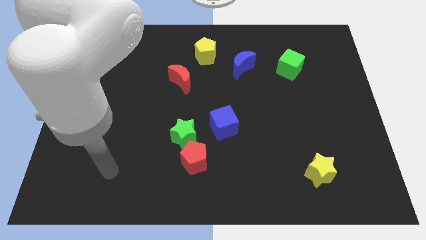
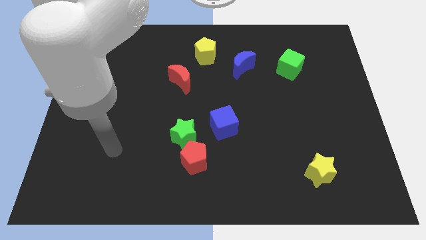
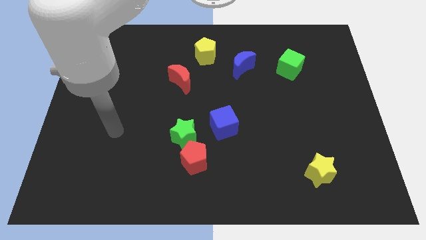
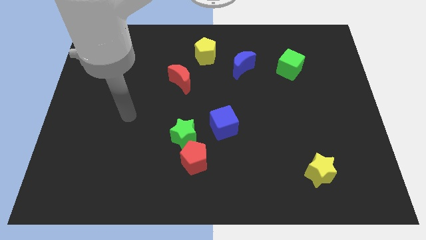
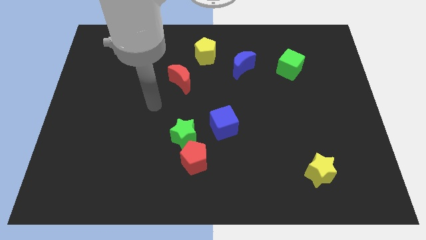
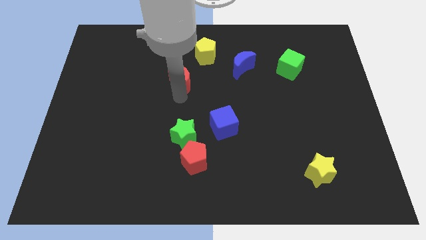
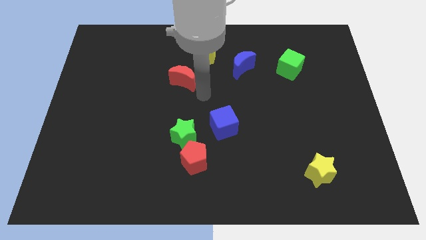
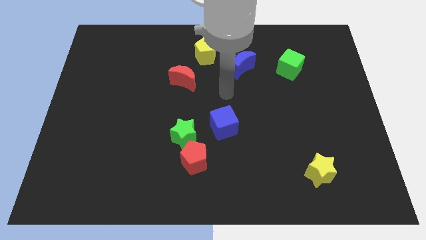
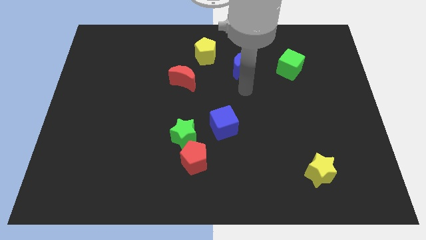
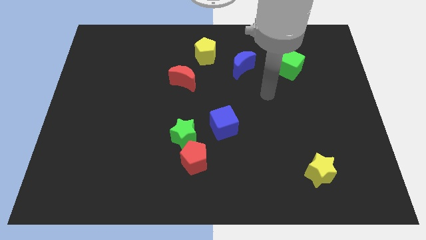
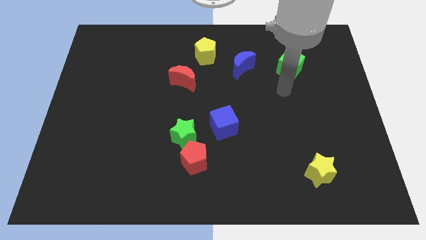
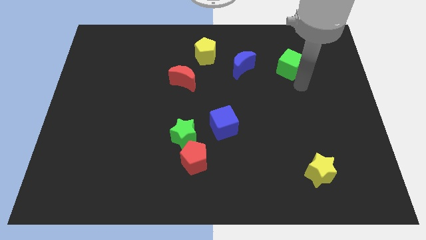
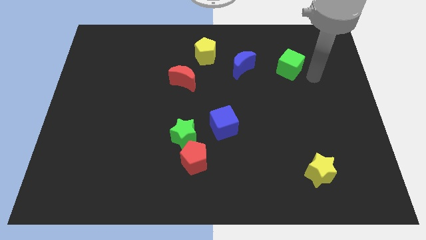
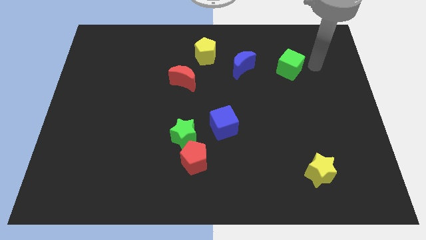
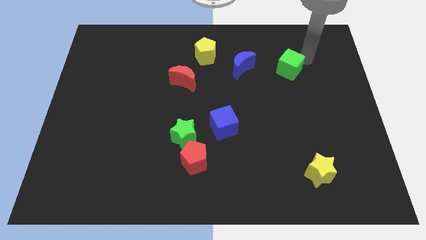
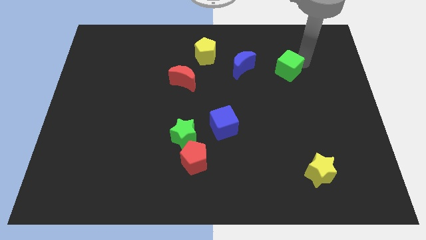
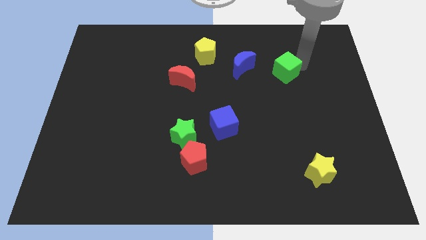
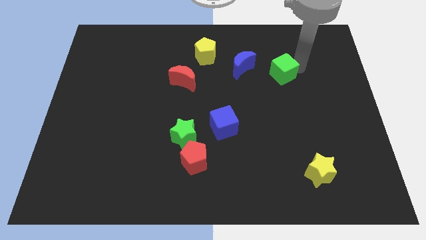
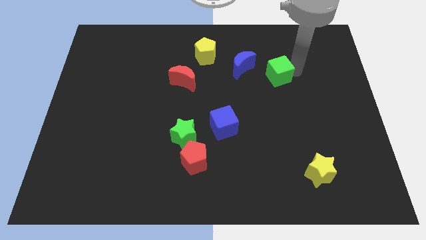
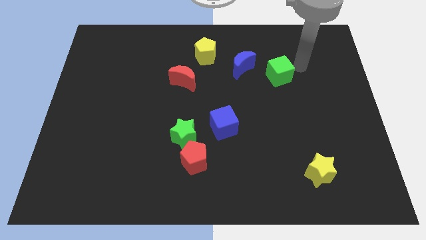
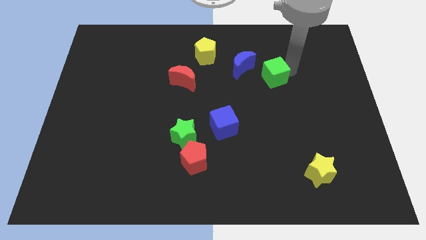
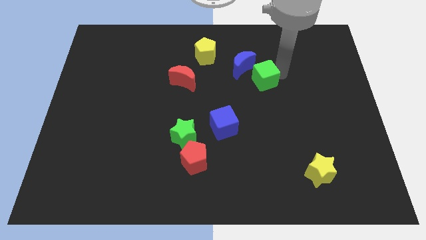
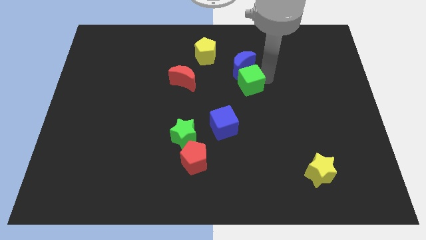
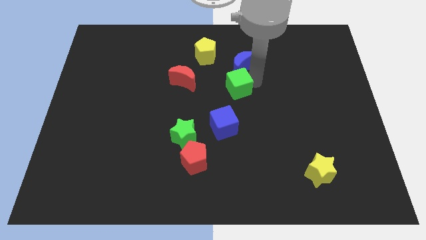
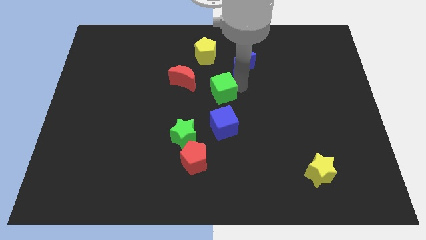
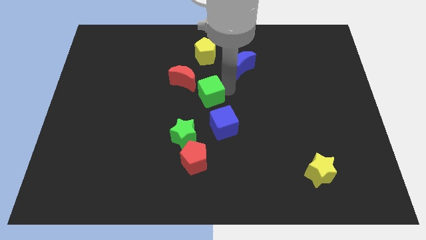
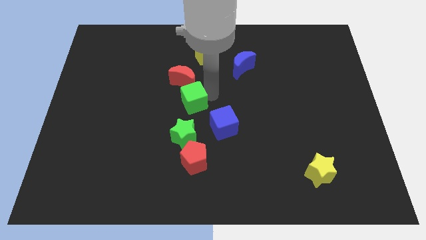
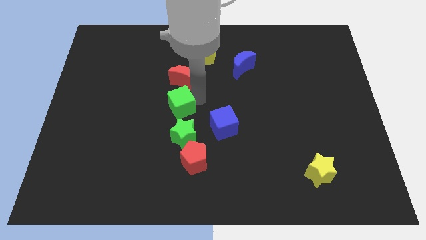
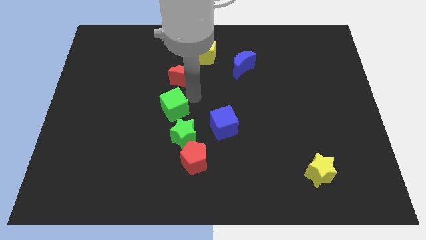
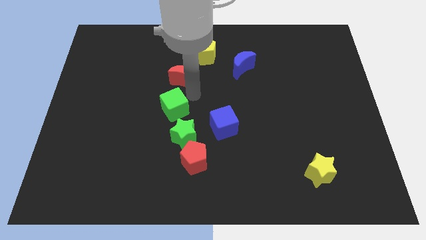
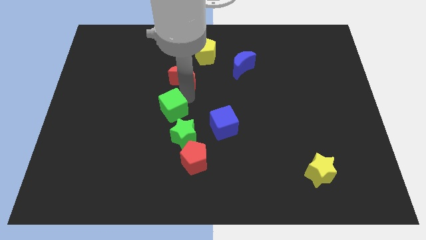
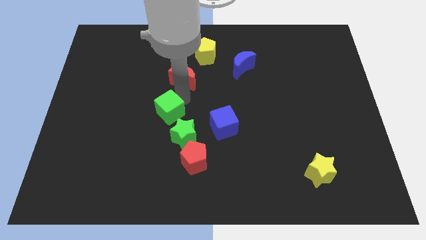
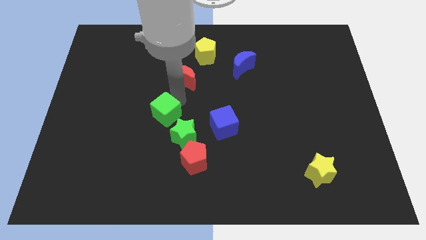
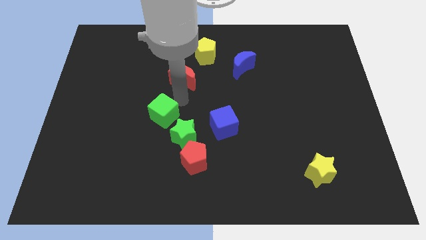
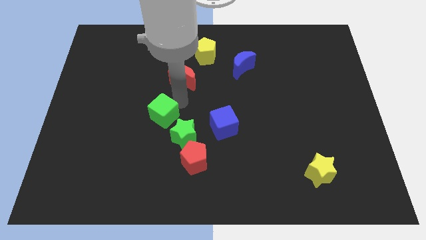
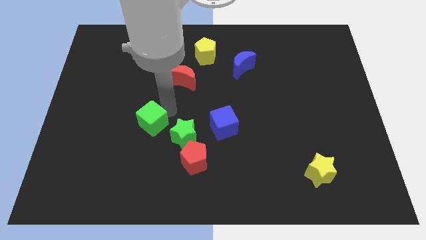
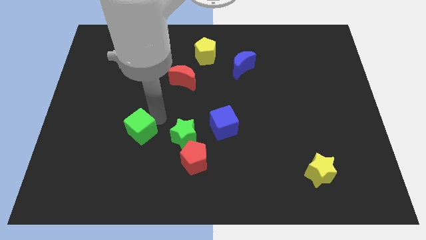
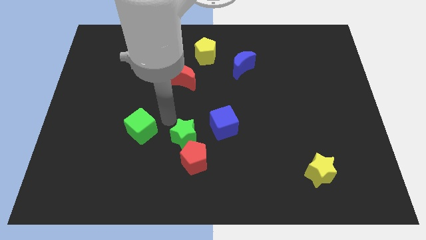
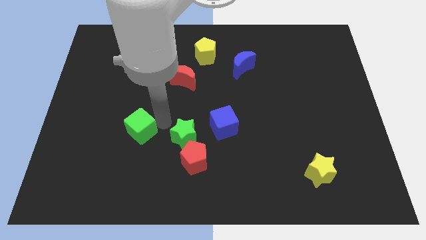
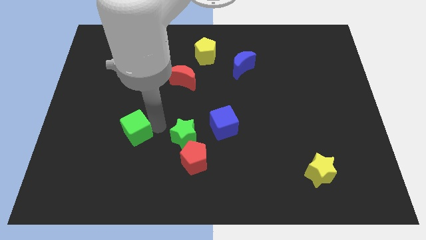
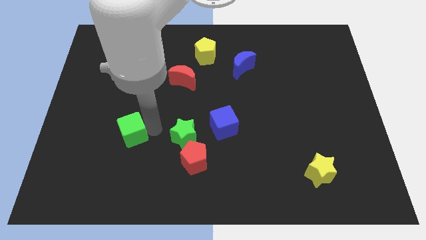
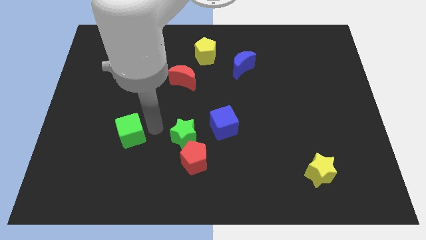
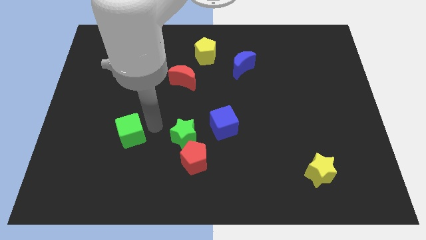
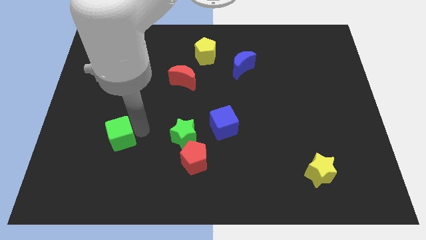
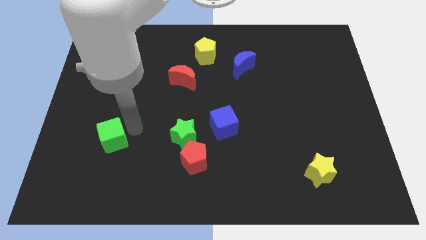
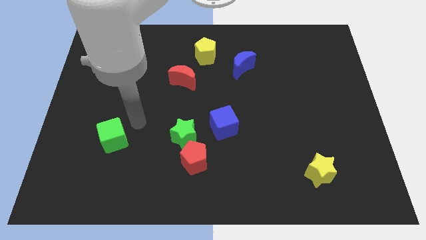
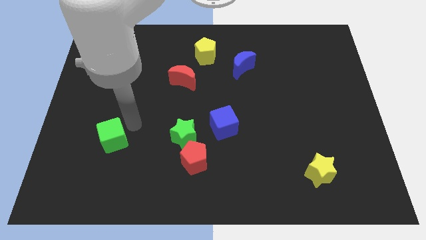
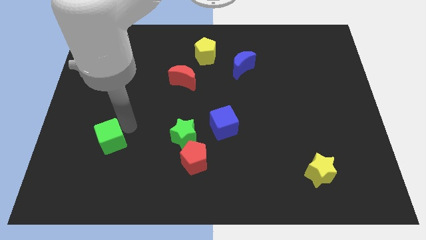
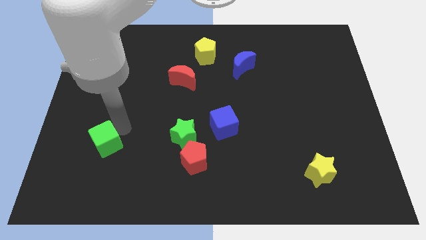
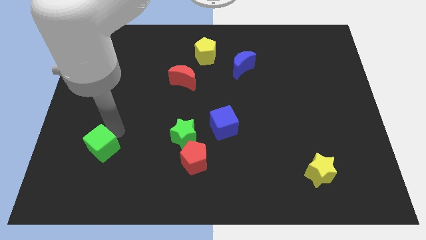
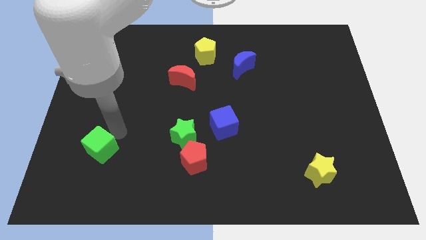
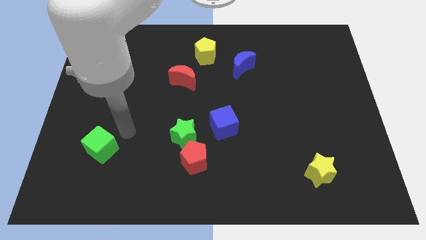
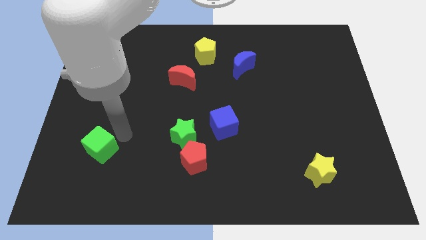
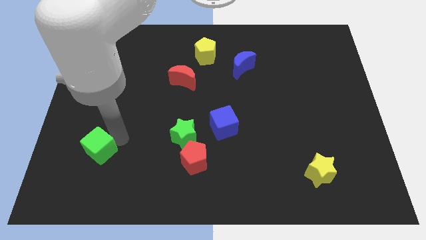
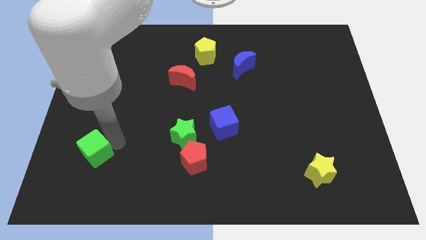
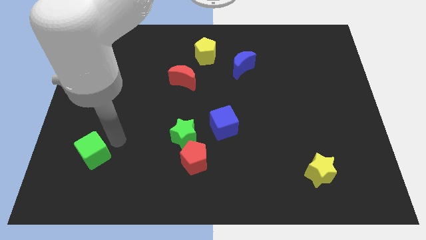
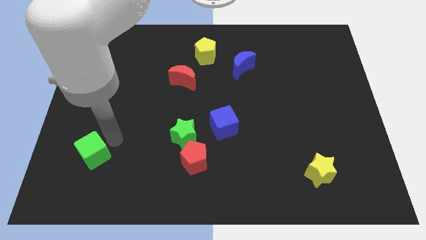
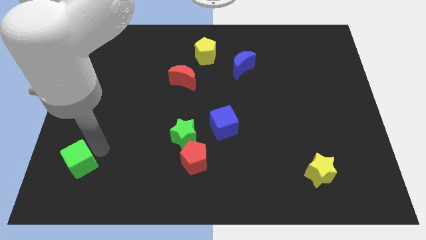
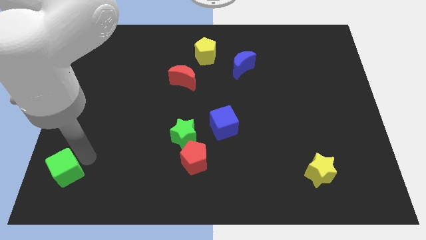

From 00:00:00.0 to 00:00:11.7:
move the green cube to the lower left corner

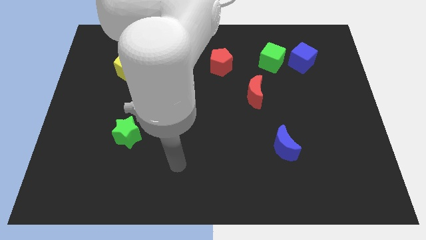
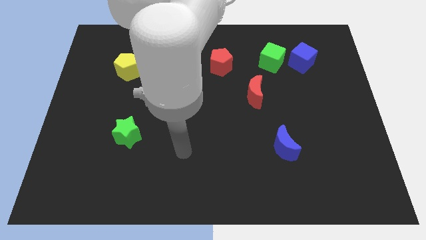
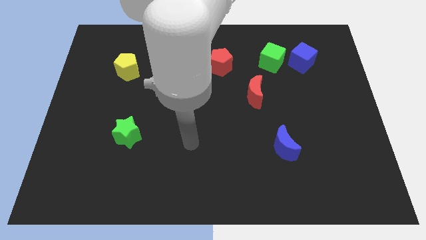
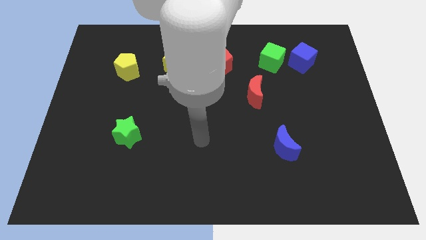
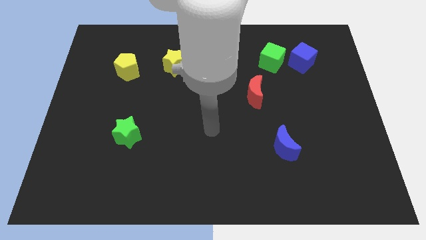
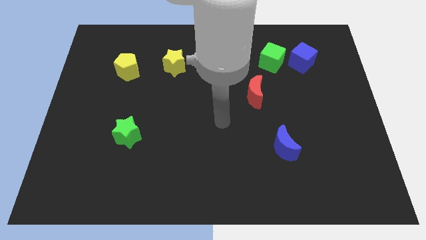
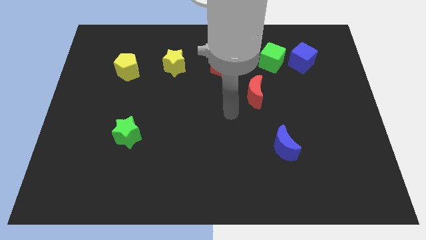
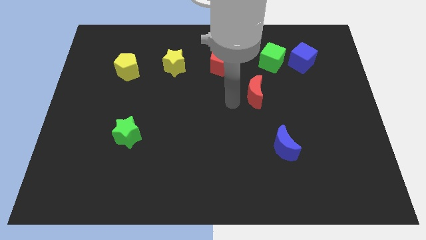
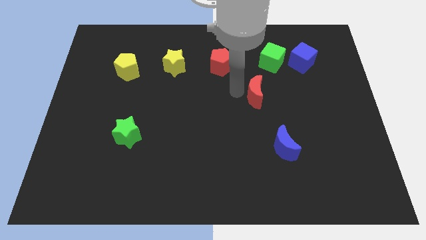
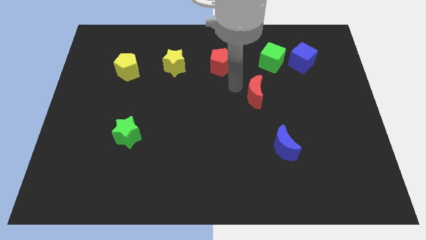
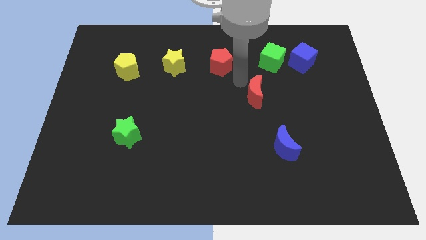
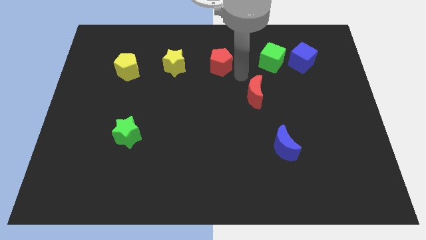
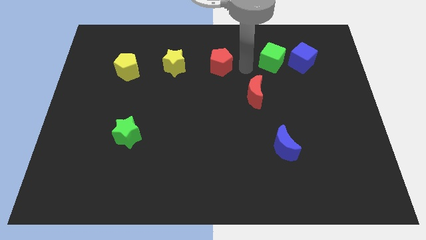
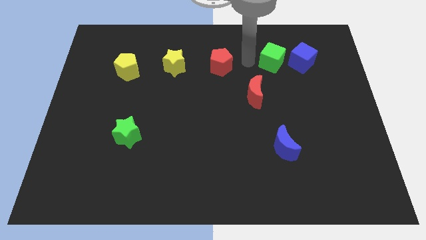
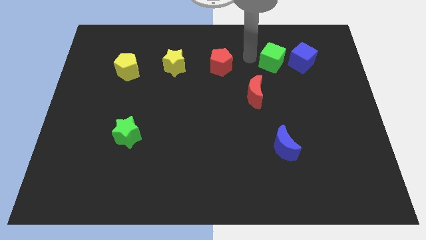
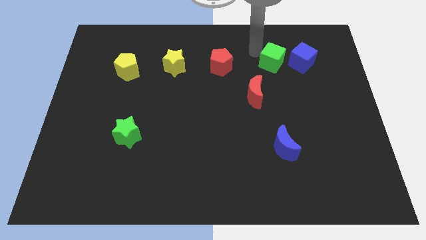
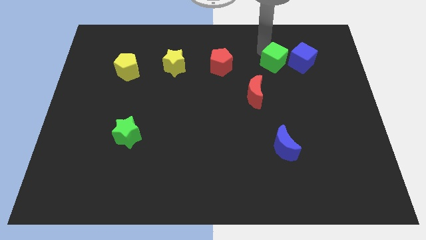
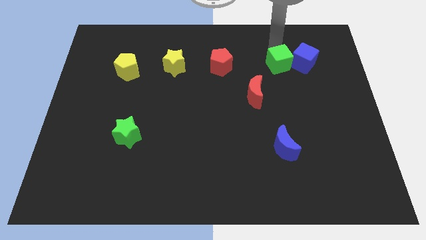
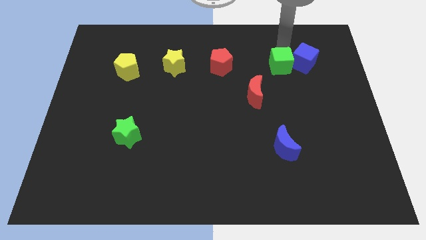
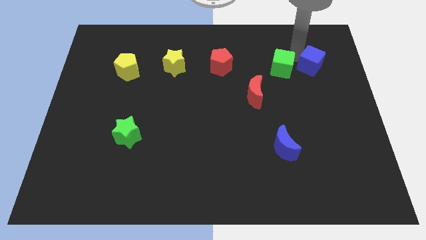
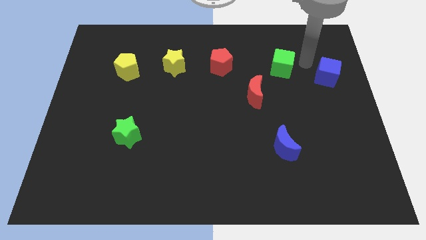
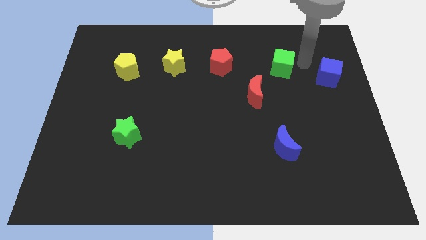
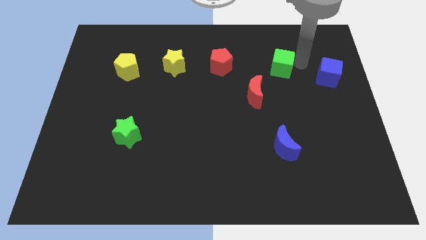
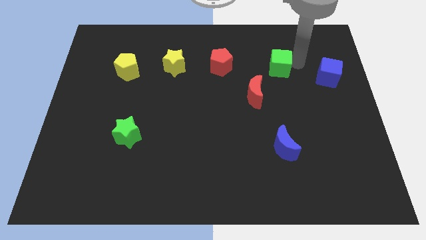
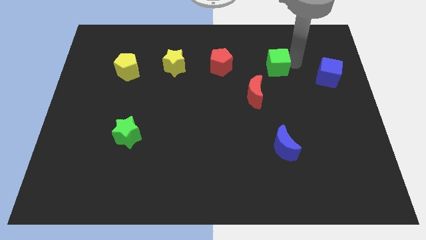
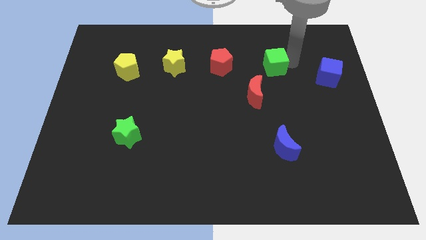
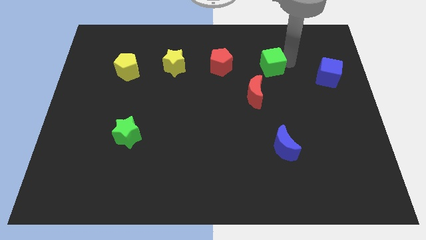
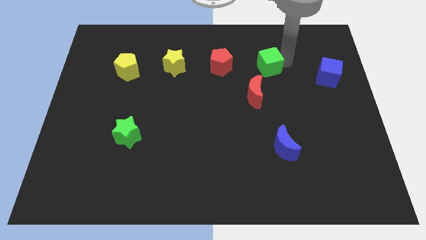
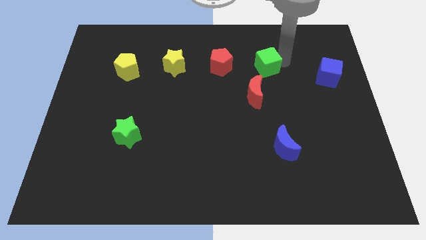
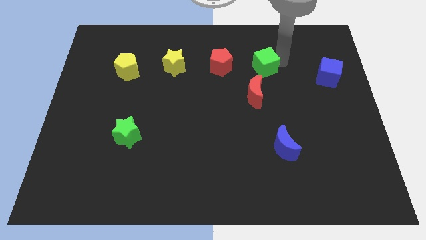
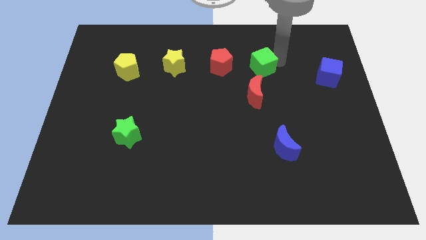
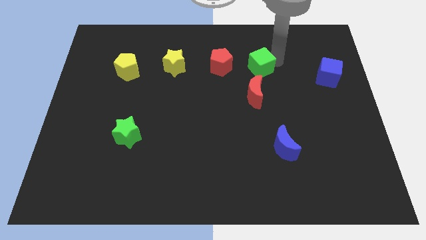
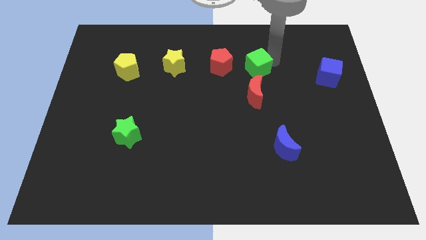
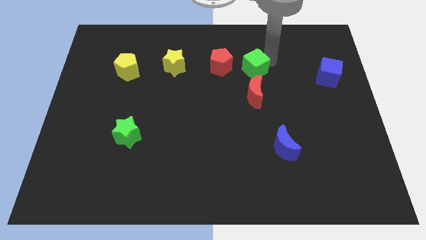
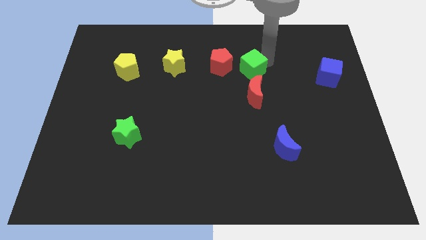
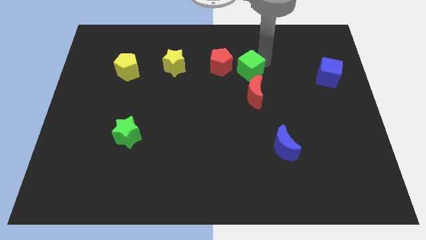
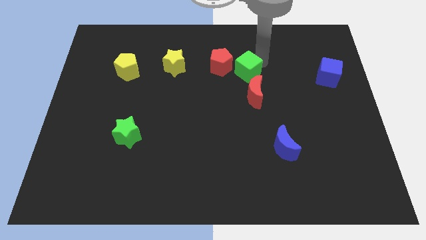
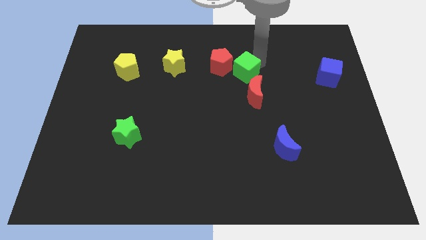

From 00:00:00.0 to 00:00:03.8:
move the green cube to the middle of the board
